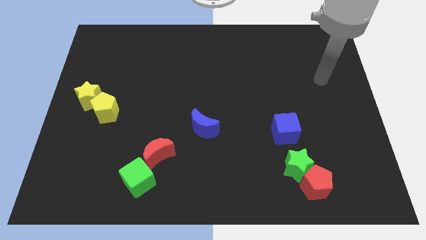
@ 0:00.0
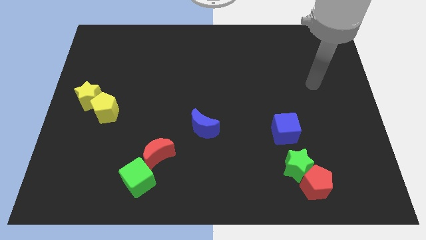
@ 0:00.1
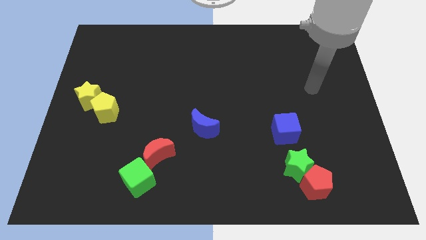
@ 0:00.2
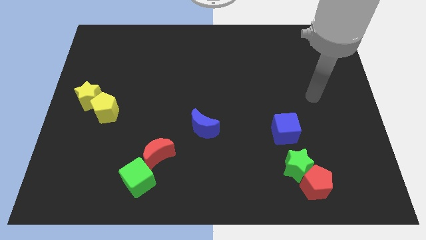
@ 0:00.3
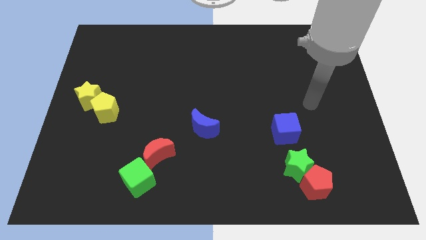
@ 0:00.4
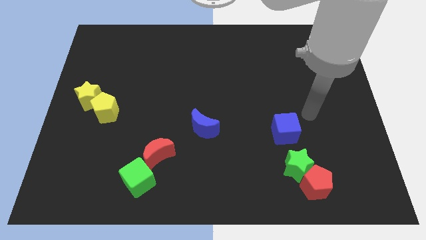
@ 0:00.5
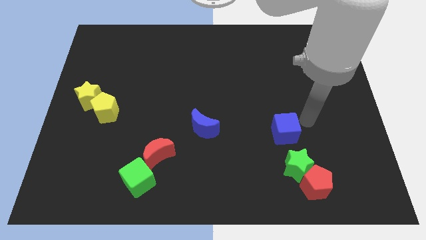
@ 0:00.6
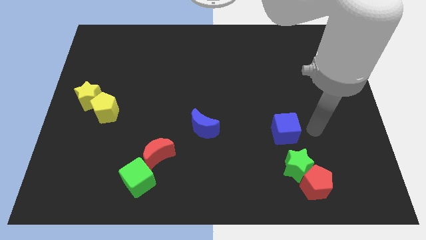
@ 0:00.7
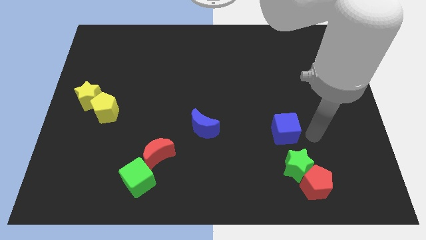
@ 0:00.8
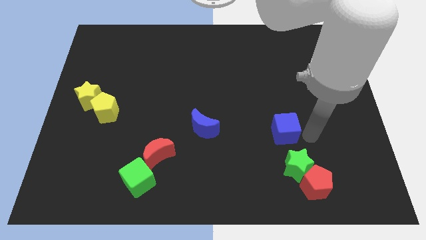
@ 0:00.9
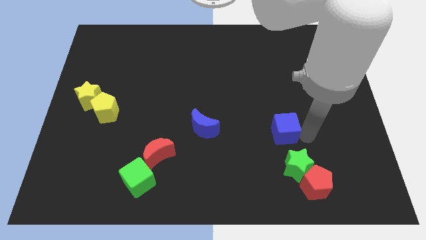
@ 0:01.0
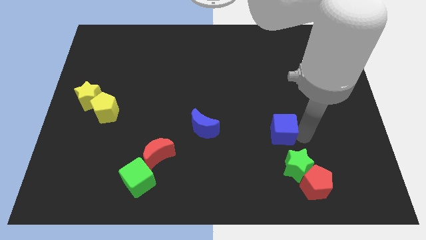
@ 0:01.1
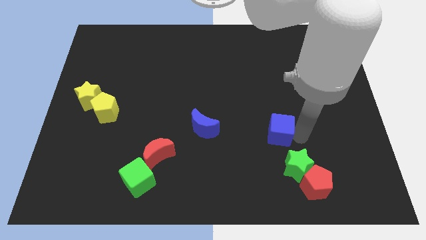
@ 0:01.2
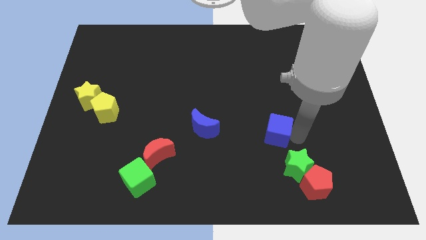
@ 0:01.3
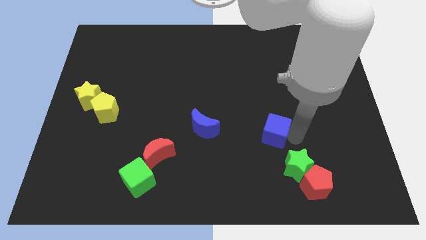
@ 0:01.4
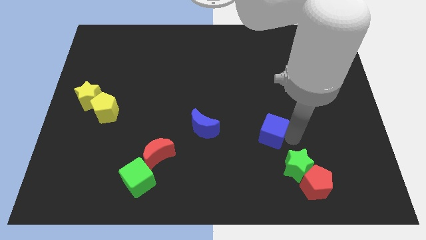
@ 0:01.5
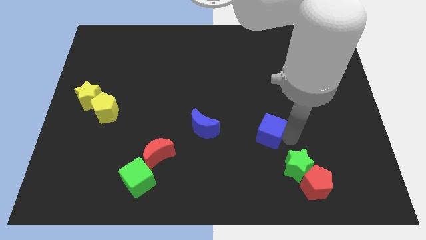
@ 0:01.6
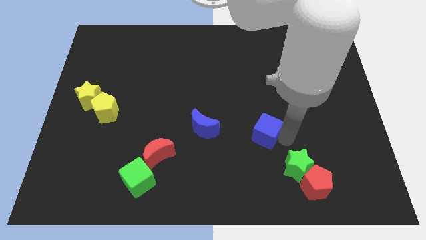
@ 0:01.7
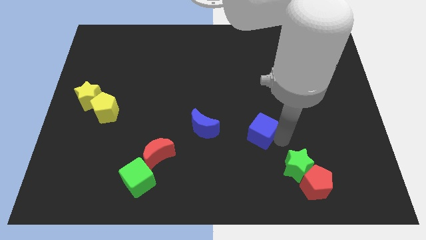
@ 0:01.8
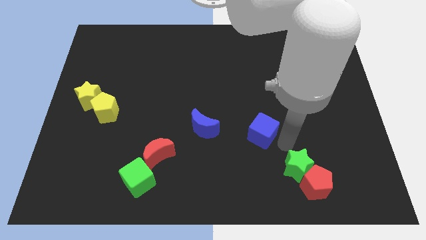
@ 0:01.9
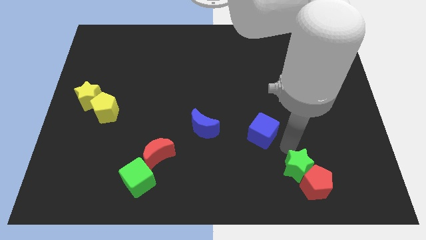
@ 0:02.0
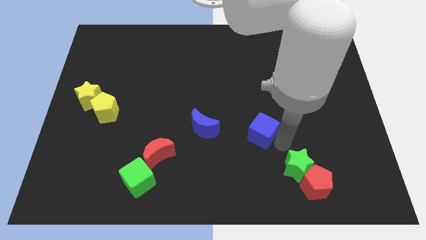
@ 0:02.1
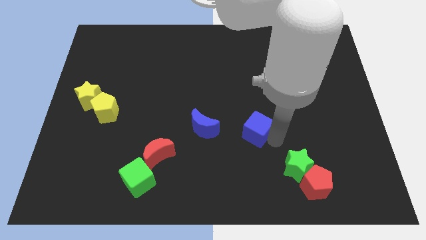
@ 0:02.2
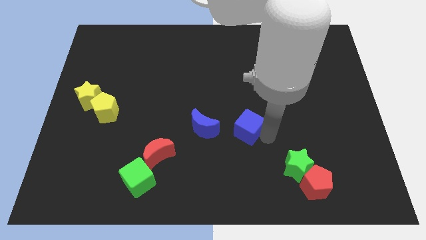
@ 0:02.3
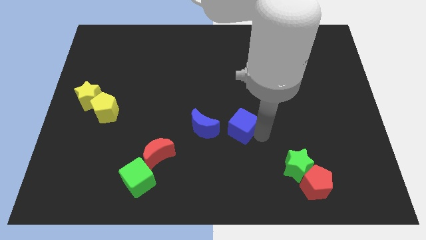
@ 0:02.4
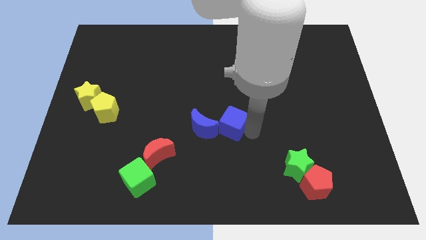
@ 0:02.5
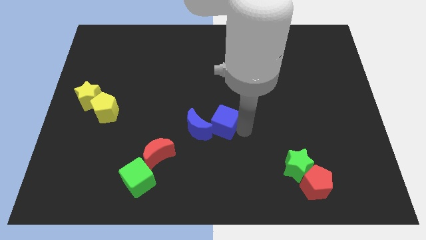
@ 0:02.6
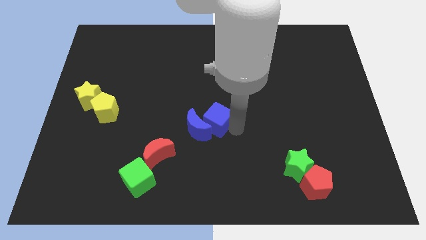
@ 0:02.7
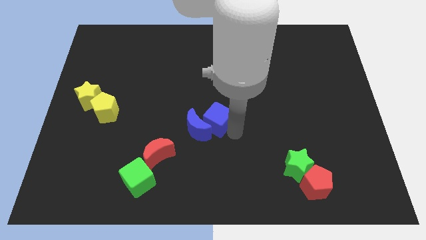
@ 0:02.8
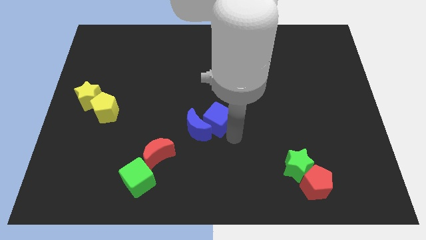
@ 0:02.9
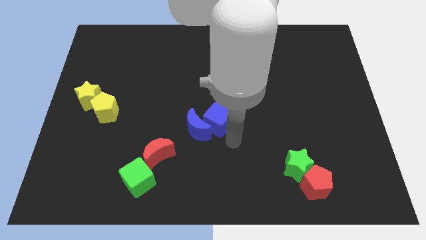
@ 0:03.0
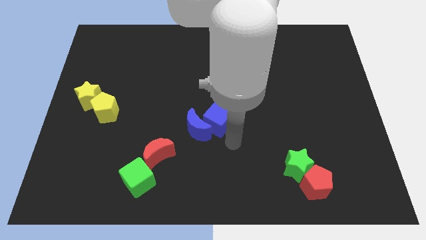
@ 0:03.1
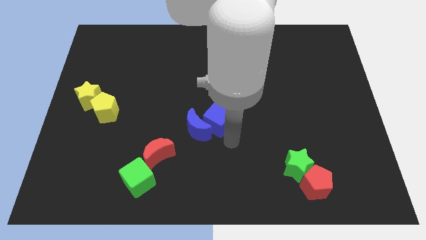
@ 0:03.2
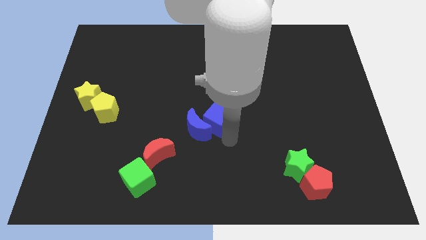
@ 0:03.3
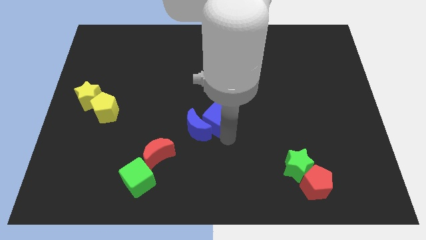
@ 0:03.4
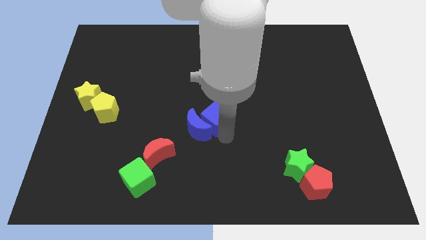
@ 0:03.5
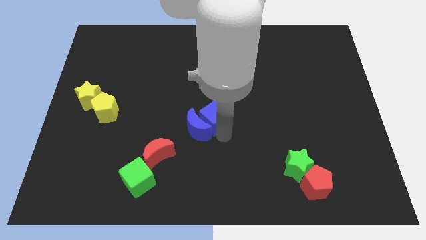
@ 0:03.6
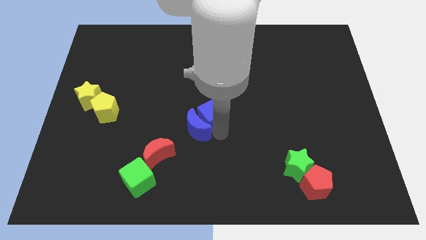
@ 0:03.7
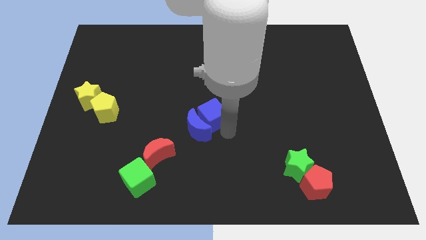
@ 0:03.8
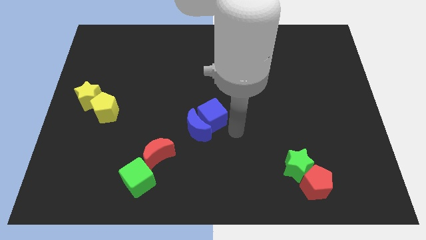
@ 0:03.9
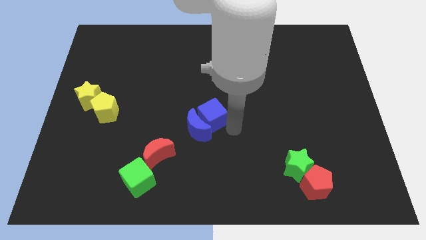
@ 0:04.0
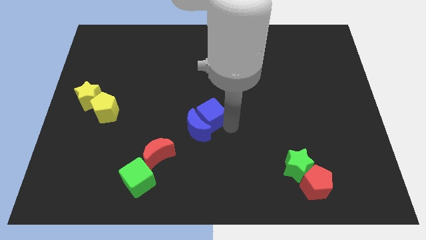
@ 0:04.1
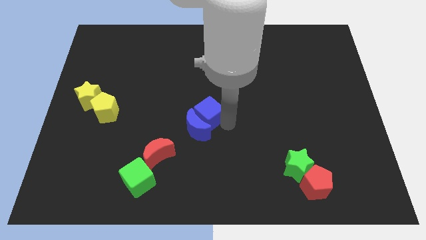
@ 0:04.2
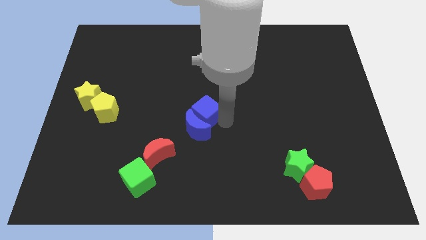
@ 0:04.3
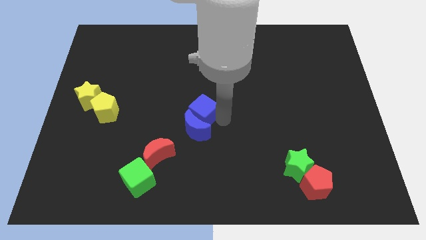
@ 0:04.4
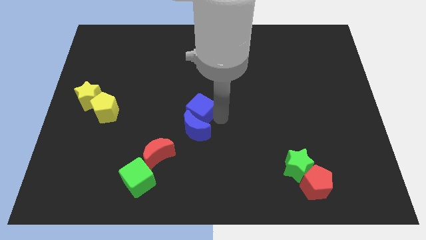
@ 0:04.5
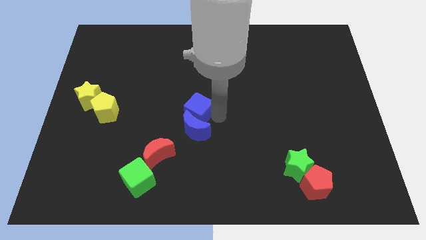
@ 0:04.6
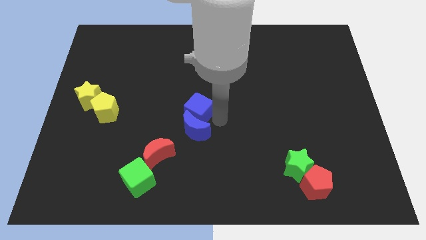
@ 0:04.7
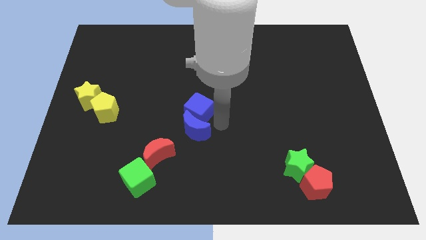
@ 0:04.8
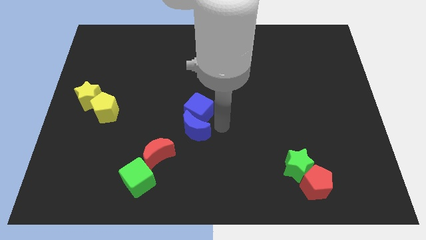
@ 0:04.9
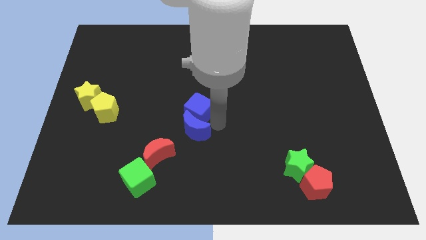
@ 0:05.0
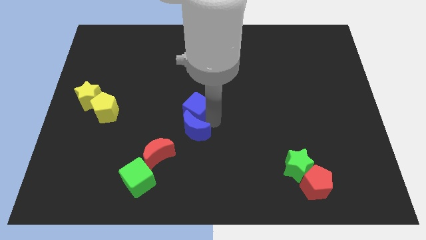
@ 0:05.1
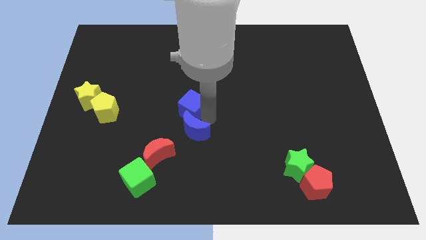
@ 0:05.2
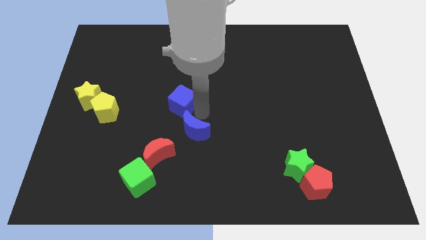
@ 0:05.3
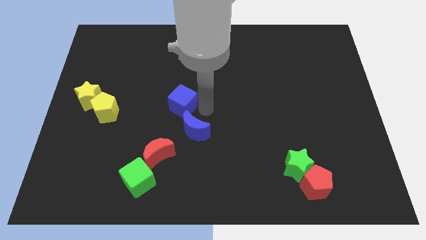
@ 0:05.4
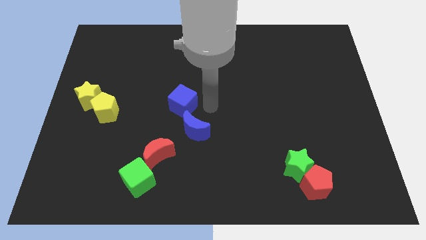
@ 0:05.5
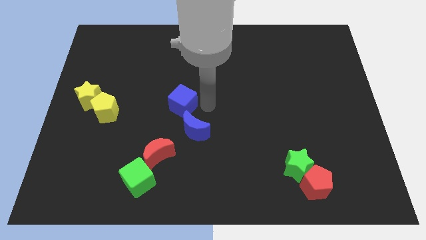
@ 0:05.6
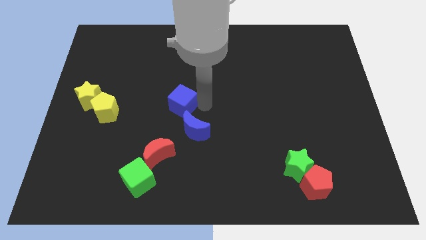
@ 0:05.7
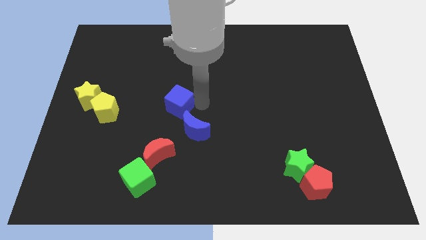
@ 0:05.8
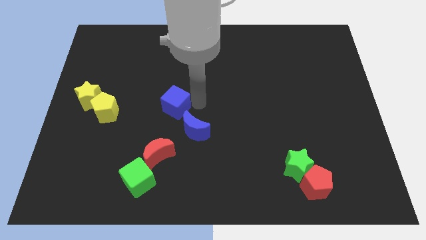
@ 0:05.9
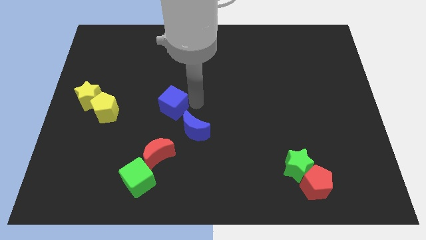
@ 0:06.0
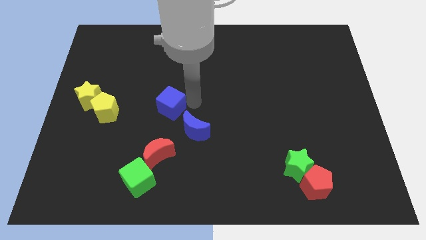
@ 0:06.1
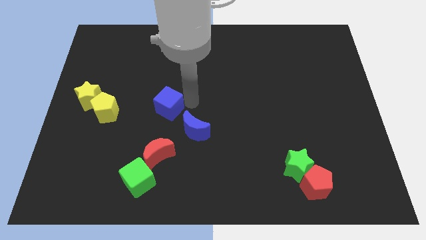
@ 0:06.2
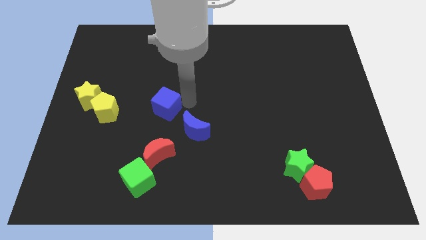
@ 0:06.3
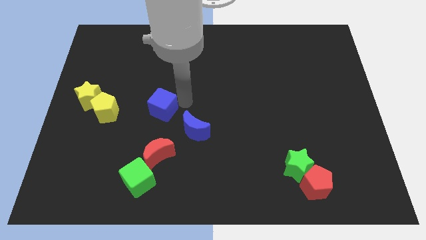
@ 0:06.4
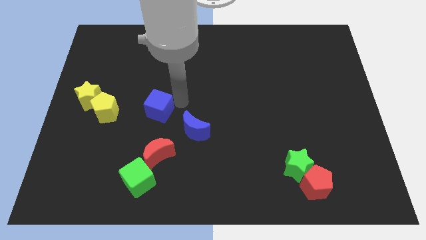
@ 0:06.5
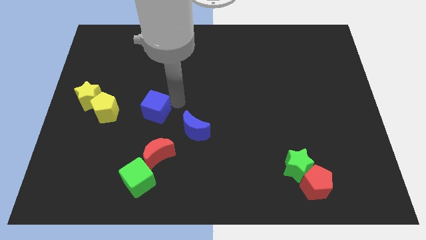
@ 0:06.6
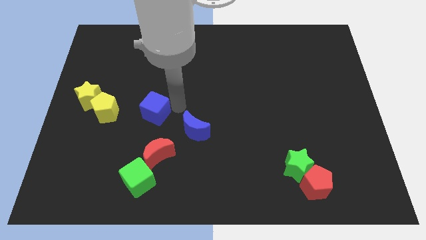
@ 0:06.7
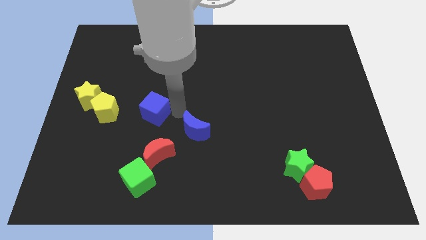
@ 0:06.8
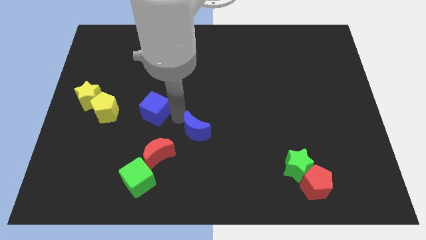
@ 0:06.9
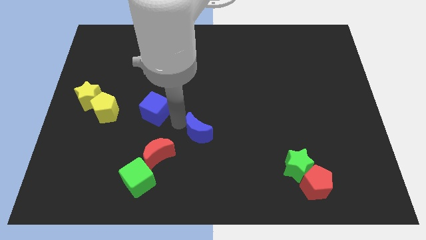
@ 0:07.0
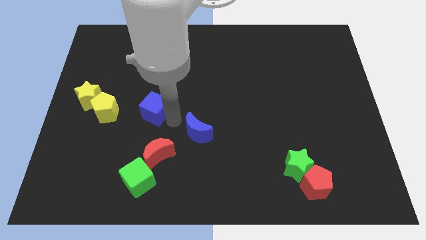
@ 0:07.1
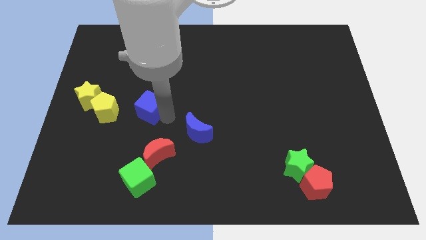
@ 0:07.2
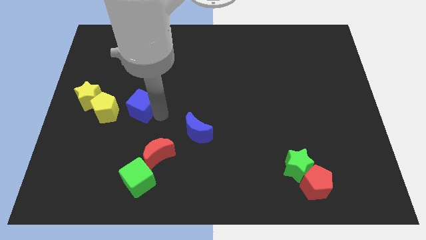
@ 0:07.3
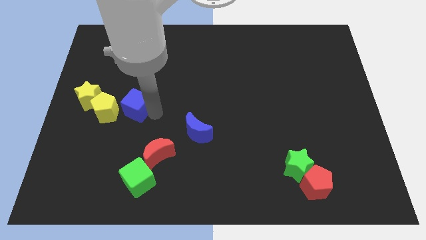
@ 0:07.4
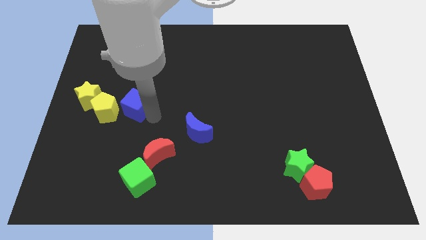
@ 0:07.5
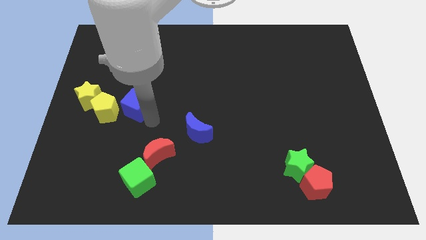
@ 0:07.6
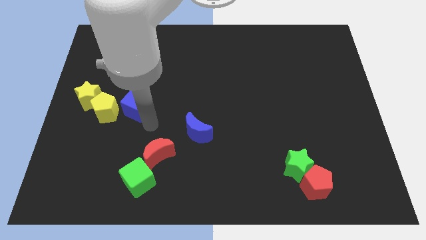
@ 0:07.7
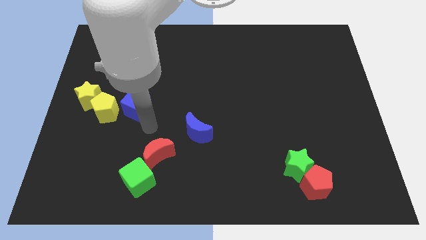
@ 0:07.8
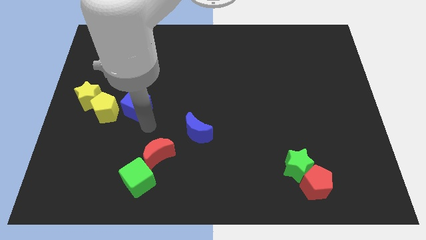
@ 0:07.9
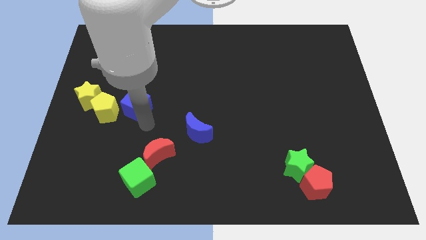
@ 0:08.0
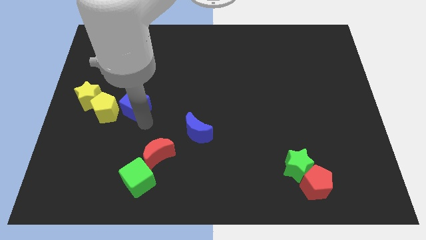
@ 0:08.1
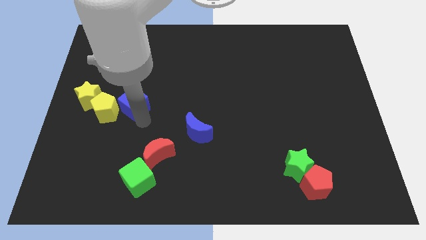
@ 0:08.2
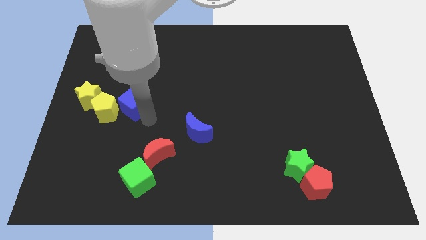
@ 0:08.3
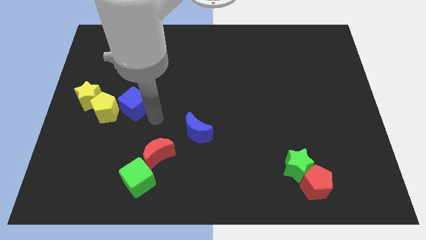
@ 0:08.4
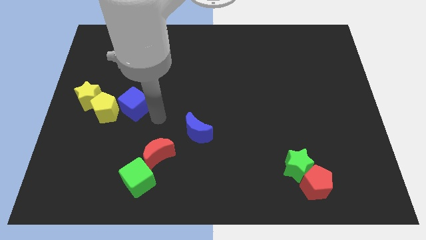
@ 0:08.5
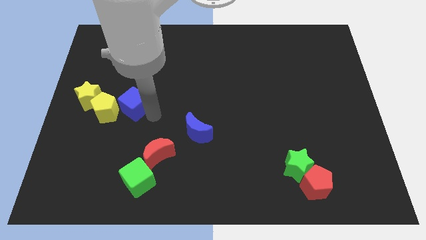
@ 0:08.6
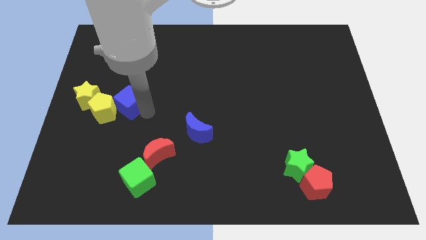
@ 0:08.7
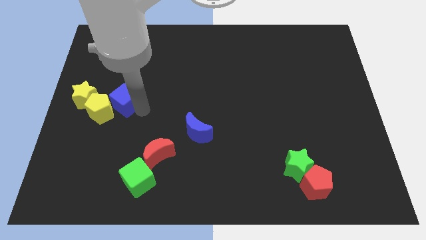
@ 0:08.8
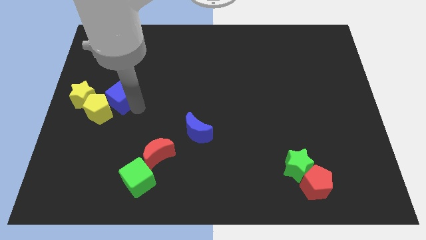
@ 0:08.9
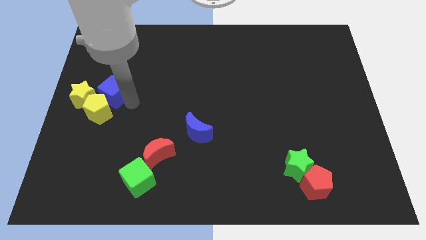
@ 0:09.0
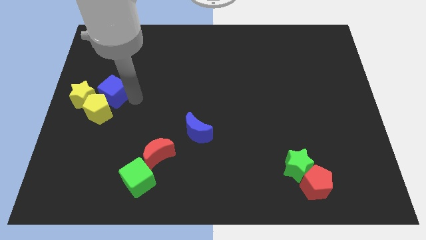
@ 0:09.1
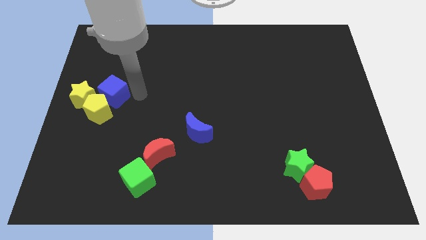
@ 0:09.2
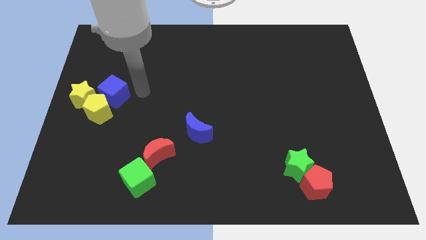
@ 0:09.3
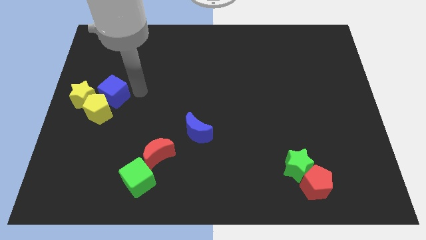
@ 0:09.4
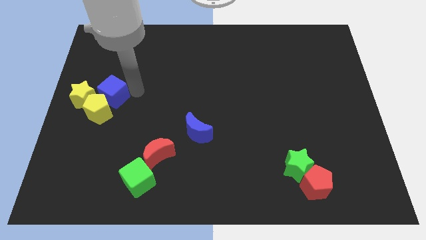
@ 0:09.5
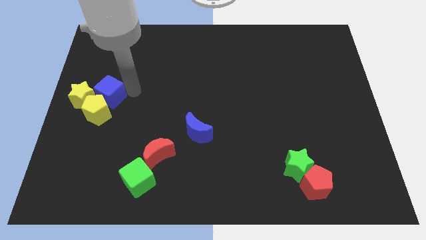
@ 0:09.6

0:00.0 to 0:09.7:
push the blue cube towards the yellow star
